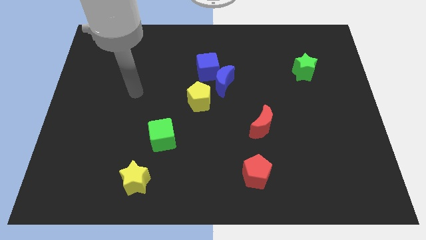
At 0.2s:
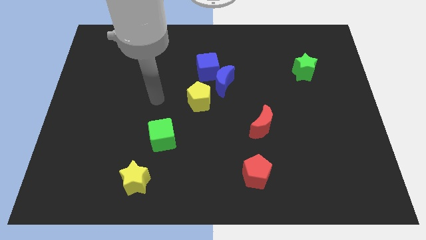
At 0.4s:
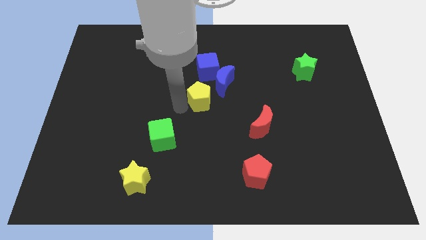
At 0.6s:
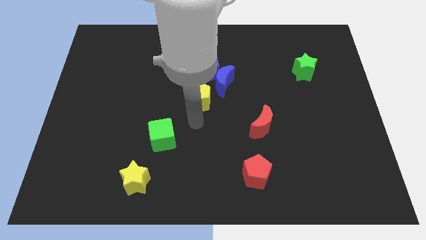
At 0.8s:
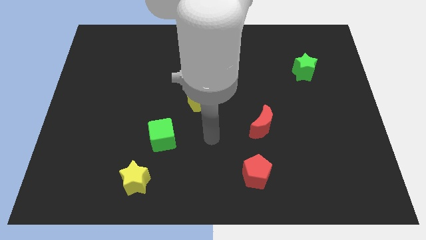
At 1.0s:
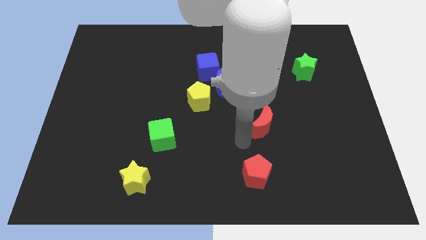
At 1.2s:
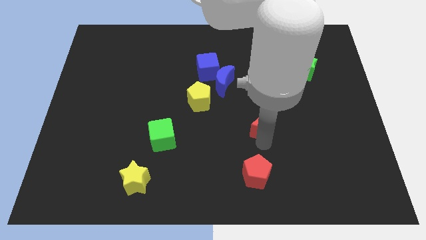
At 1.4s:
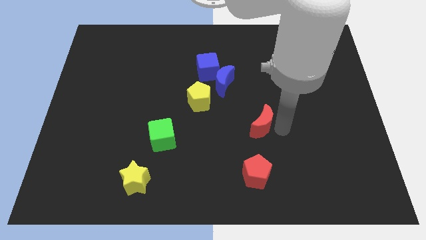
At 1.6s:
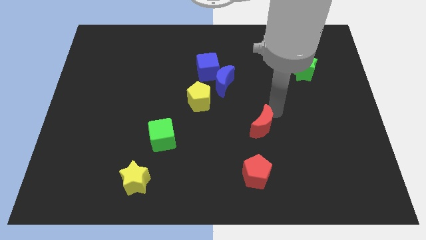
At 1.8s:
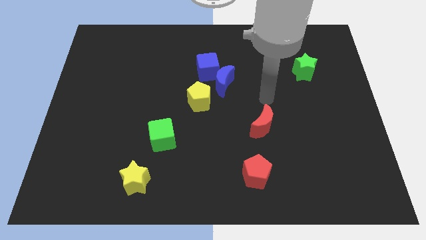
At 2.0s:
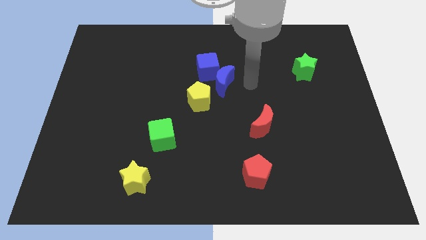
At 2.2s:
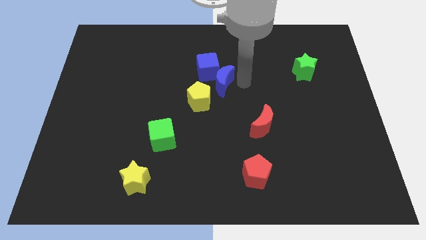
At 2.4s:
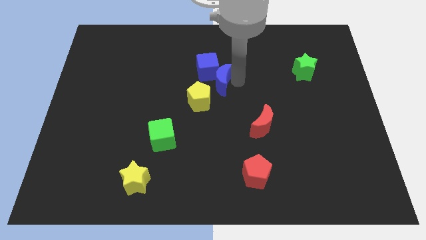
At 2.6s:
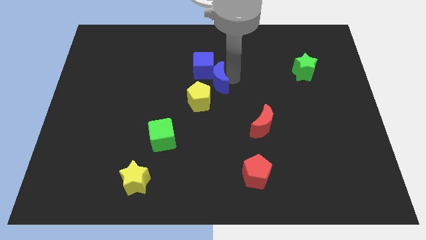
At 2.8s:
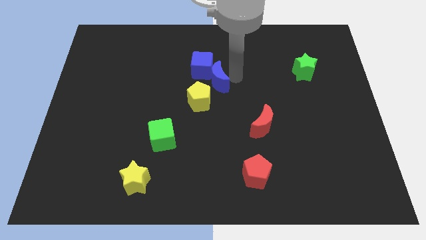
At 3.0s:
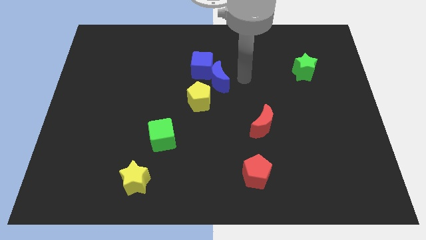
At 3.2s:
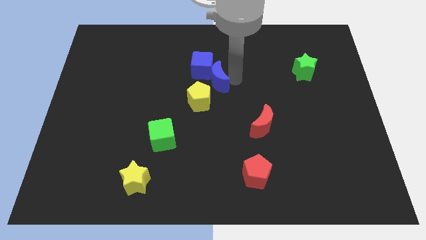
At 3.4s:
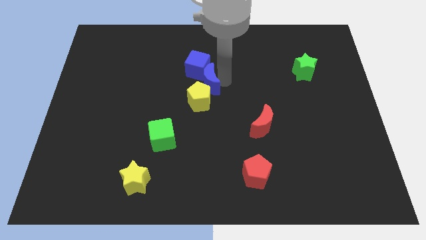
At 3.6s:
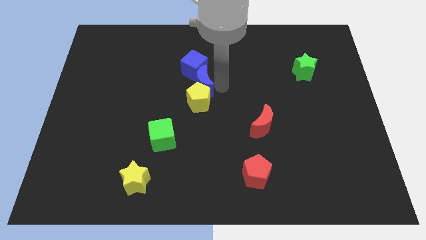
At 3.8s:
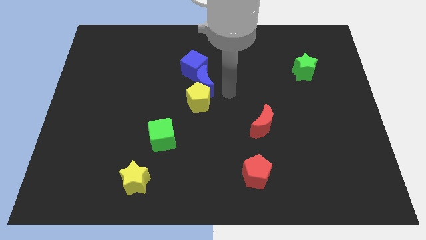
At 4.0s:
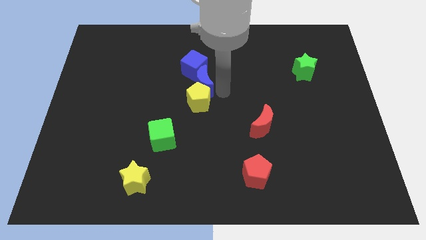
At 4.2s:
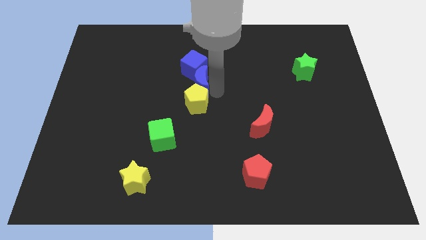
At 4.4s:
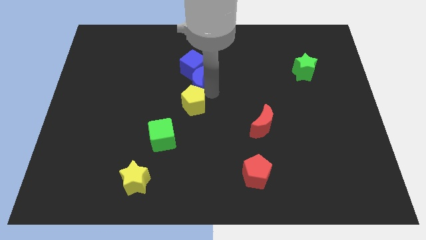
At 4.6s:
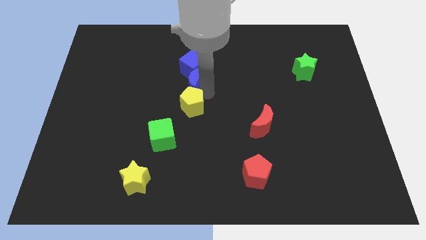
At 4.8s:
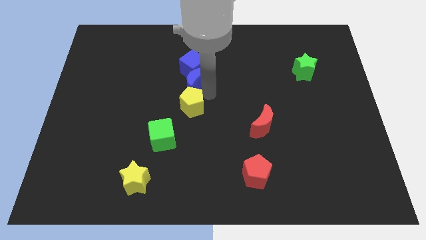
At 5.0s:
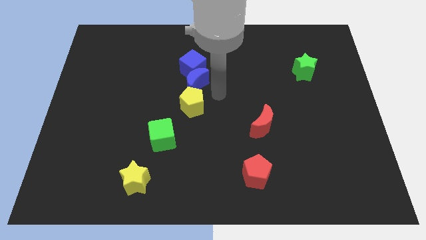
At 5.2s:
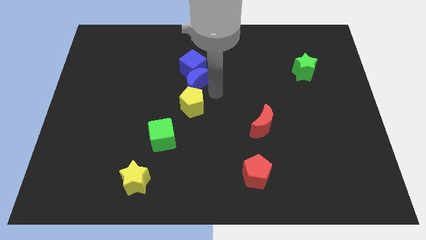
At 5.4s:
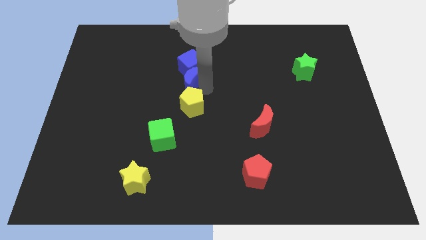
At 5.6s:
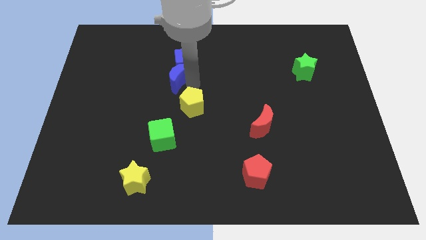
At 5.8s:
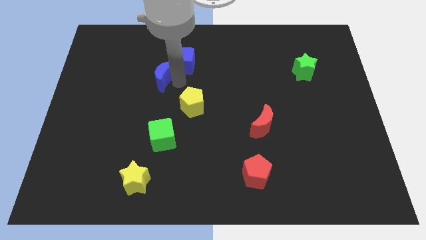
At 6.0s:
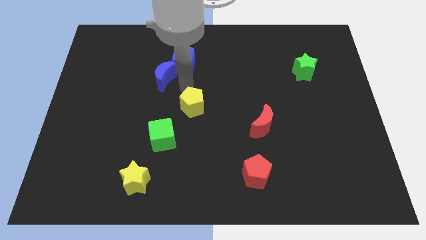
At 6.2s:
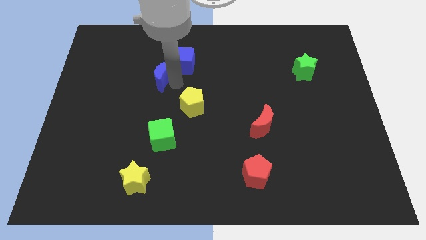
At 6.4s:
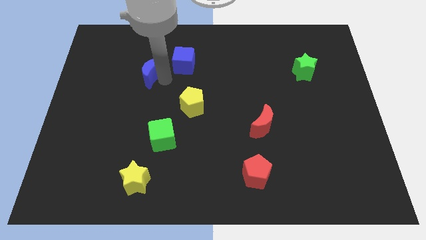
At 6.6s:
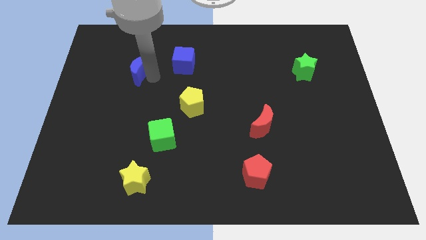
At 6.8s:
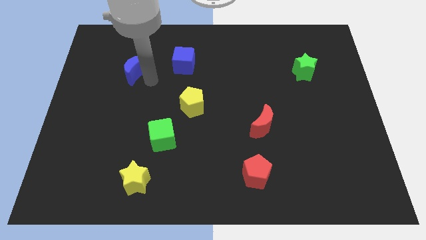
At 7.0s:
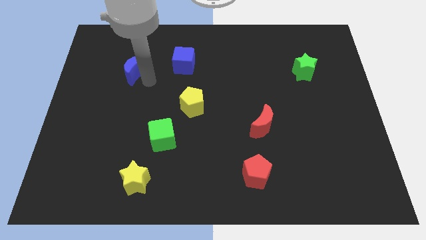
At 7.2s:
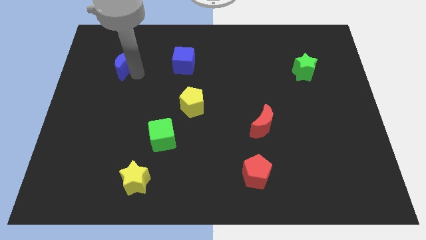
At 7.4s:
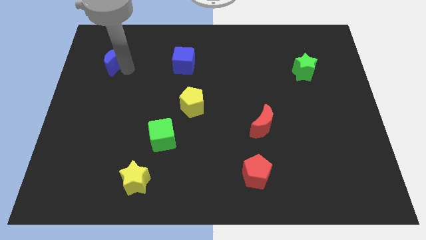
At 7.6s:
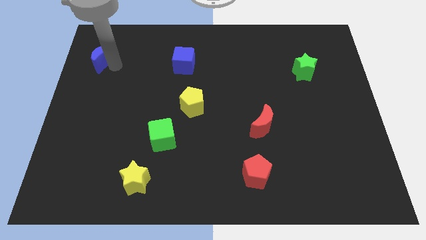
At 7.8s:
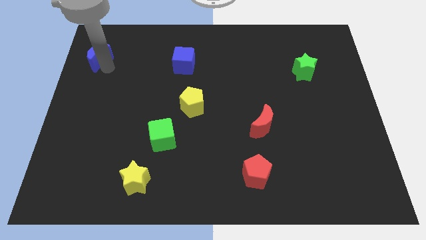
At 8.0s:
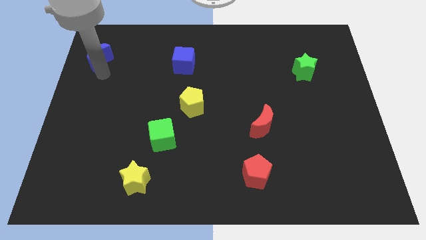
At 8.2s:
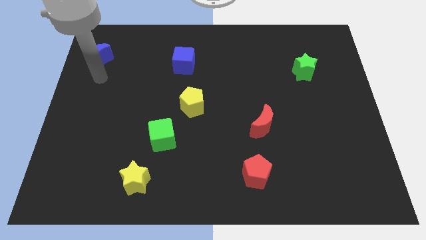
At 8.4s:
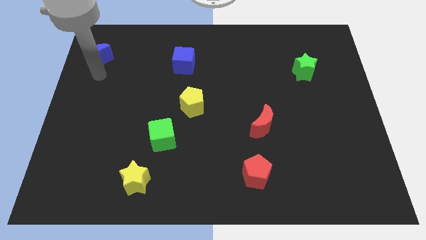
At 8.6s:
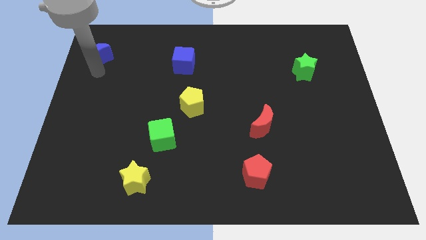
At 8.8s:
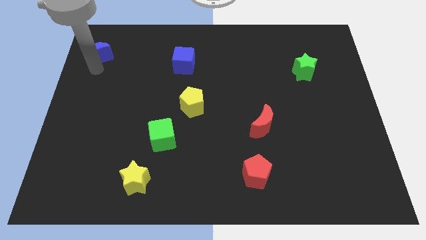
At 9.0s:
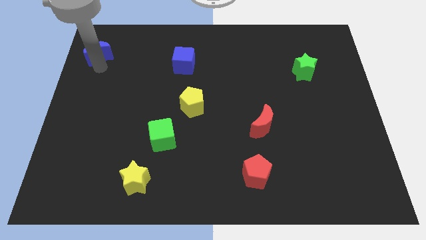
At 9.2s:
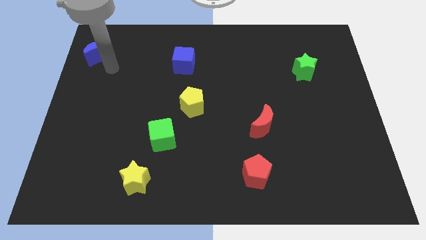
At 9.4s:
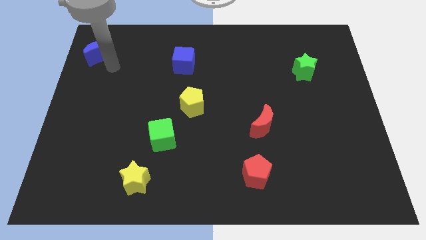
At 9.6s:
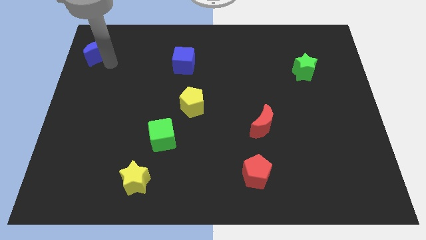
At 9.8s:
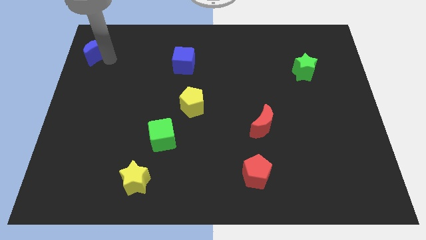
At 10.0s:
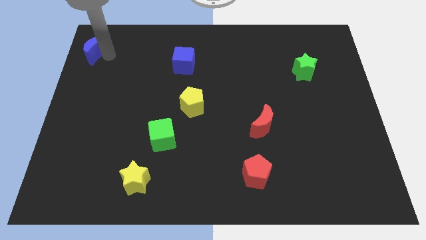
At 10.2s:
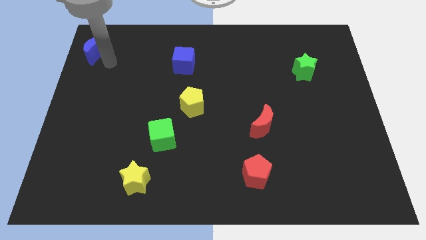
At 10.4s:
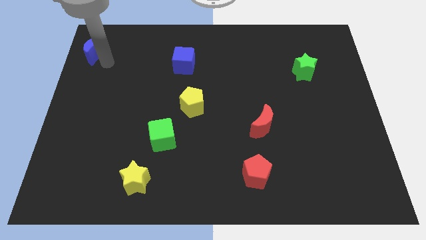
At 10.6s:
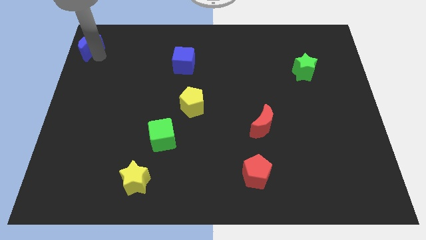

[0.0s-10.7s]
move the blue moon to the top left corner

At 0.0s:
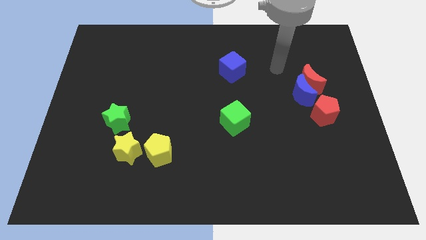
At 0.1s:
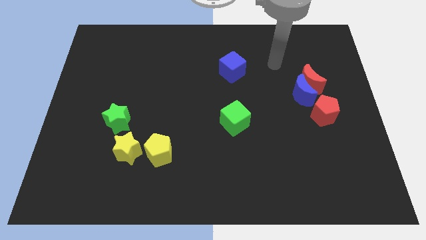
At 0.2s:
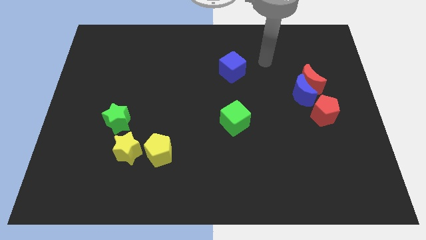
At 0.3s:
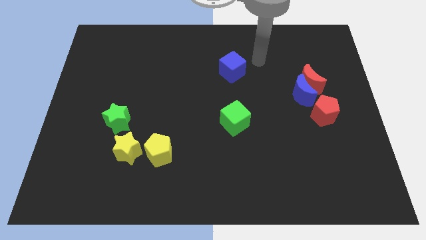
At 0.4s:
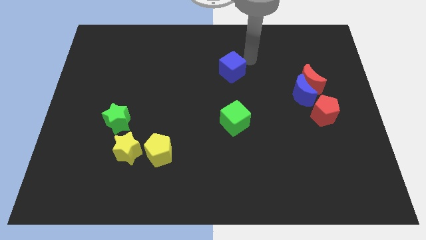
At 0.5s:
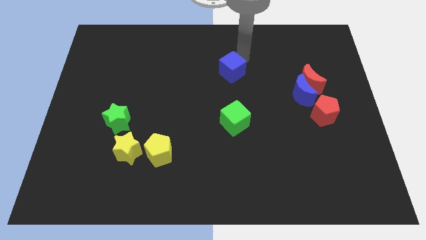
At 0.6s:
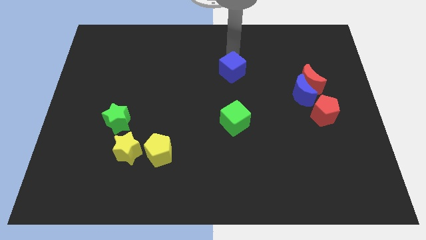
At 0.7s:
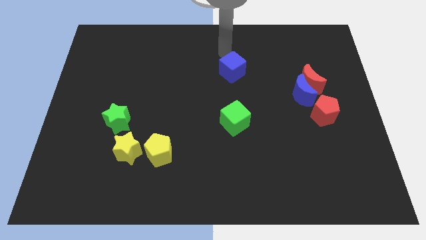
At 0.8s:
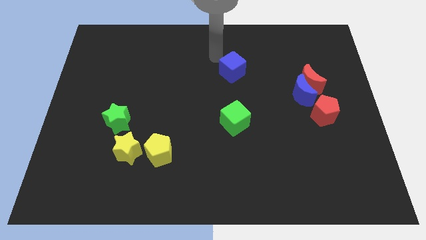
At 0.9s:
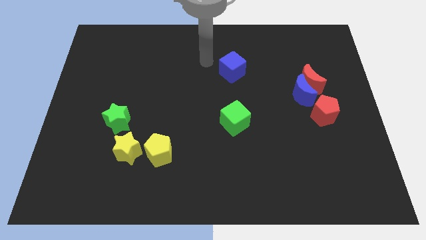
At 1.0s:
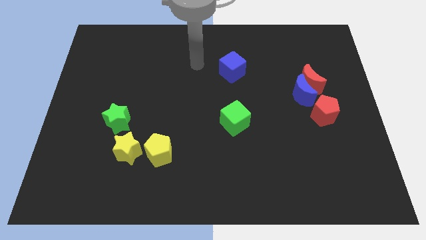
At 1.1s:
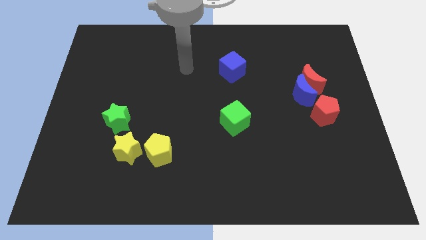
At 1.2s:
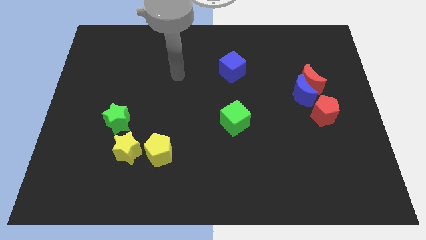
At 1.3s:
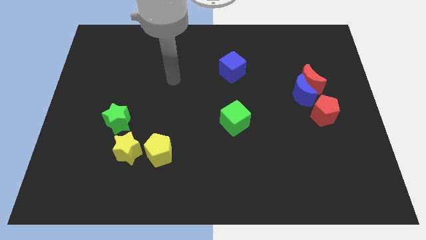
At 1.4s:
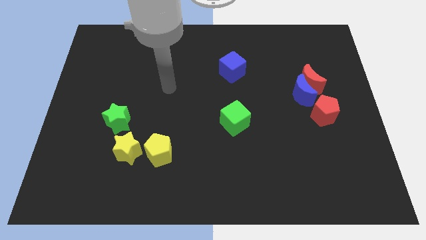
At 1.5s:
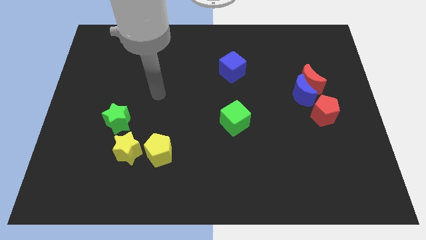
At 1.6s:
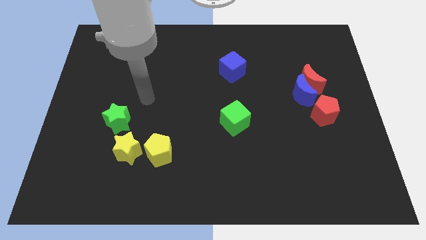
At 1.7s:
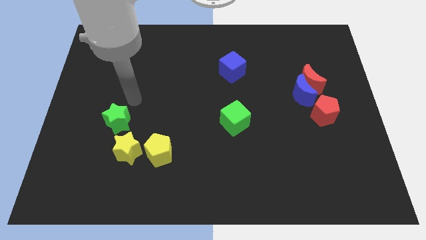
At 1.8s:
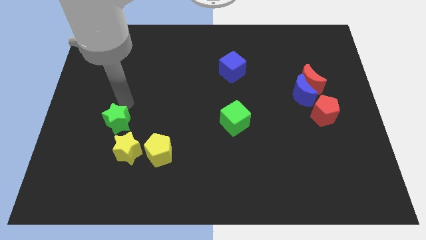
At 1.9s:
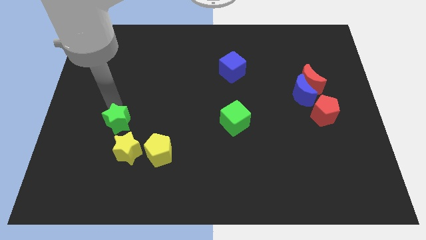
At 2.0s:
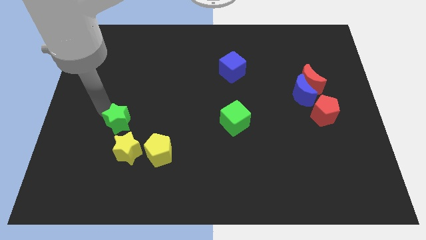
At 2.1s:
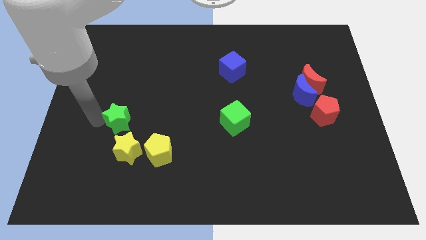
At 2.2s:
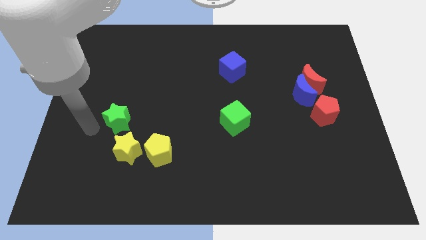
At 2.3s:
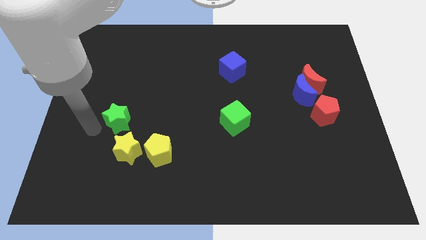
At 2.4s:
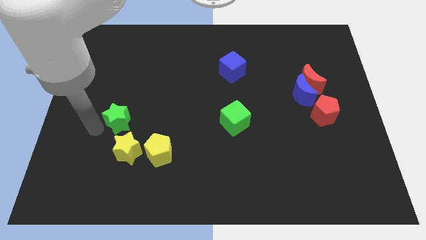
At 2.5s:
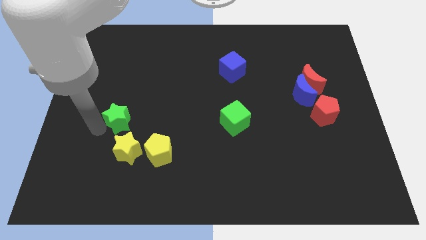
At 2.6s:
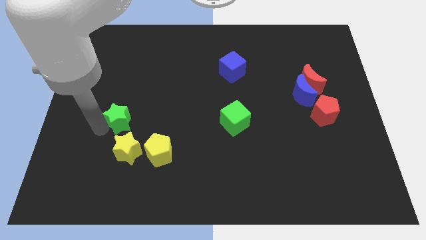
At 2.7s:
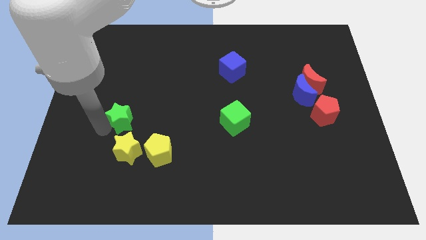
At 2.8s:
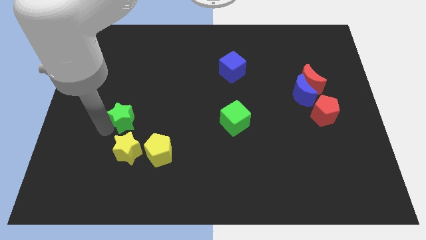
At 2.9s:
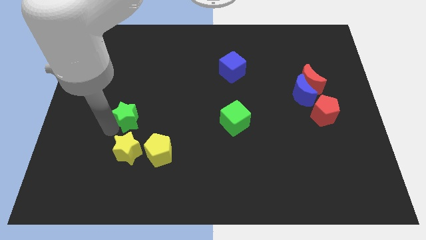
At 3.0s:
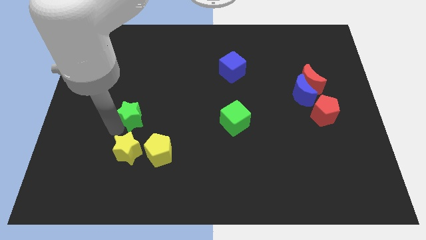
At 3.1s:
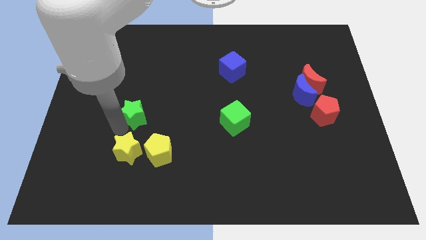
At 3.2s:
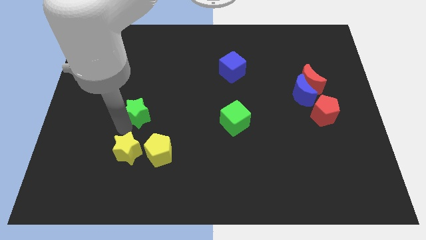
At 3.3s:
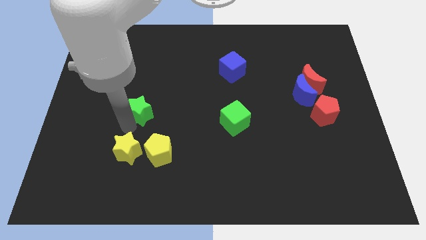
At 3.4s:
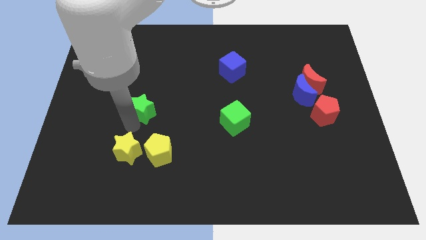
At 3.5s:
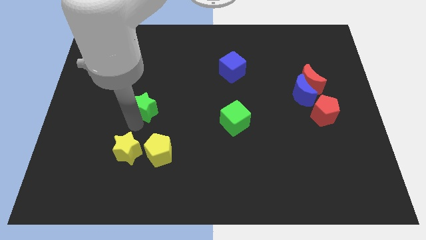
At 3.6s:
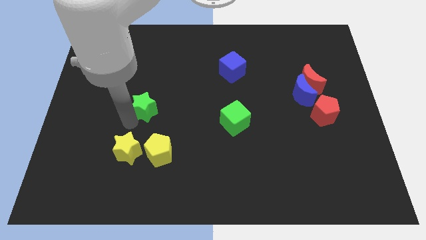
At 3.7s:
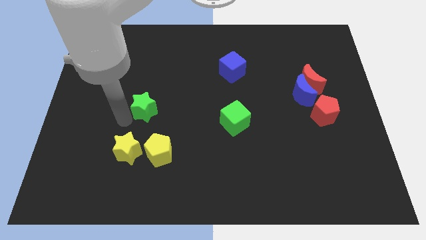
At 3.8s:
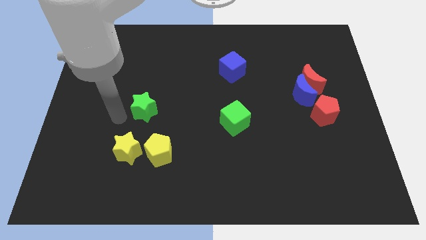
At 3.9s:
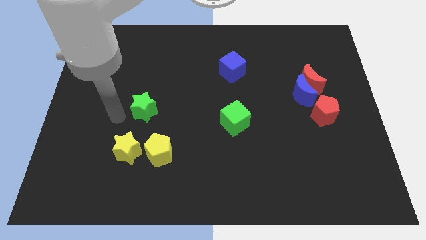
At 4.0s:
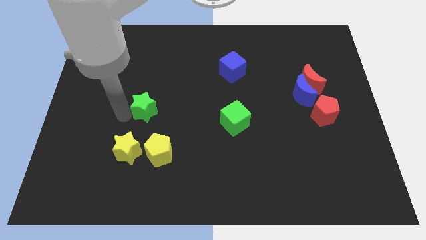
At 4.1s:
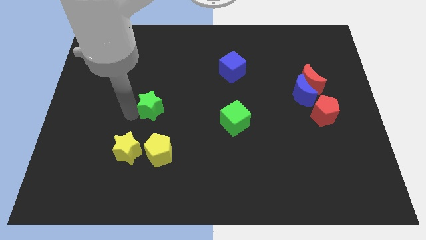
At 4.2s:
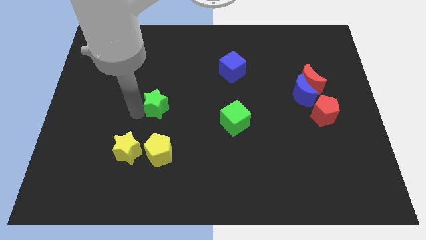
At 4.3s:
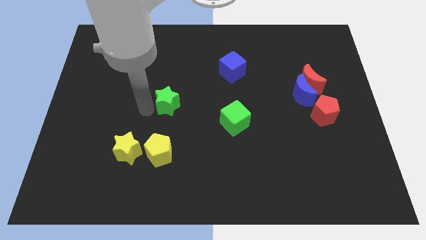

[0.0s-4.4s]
slide the green star to the center of the board
